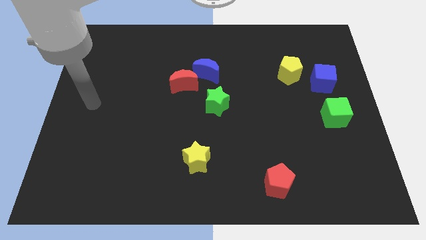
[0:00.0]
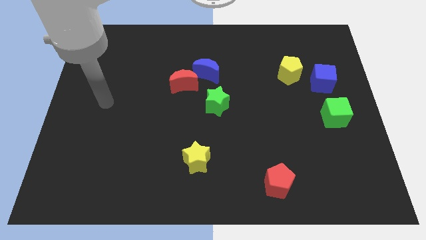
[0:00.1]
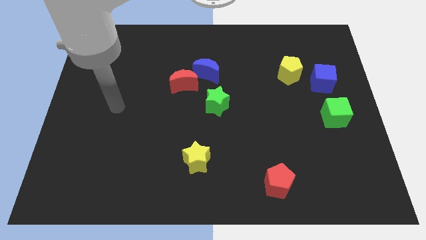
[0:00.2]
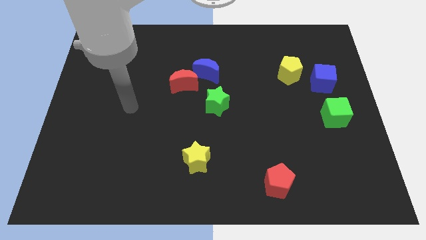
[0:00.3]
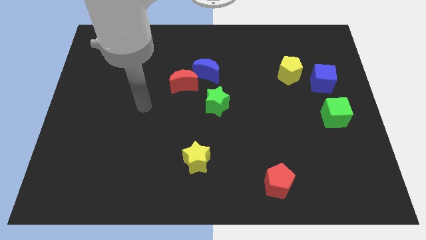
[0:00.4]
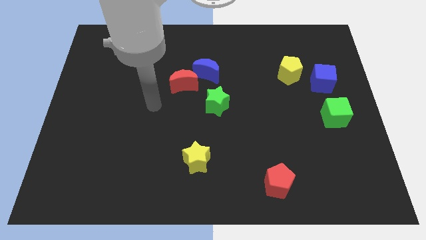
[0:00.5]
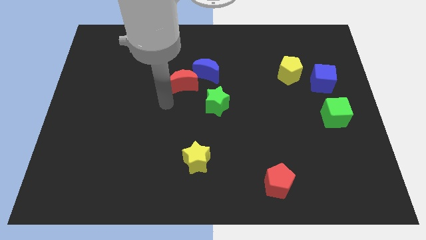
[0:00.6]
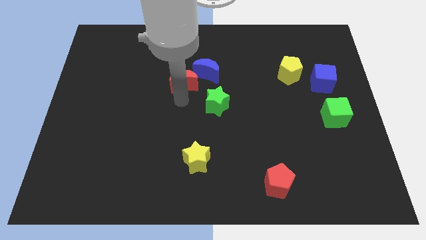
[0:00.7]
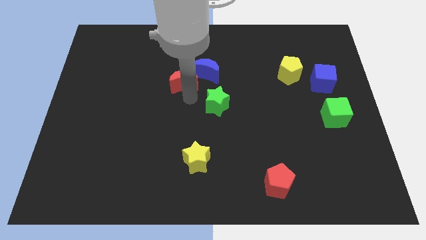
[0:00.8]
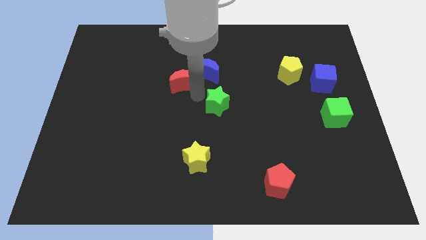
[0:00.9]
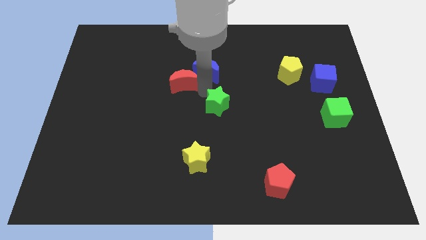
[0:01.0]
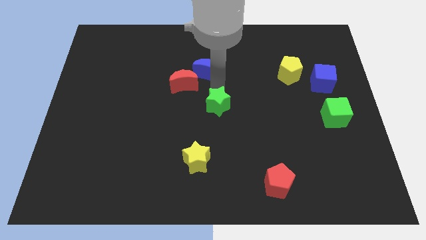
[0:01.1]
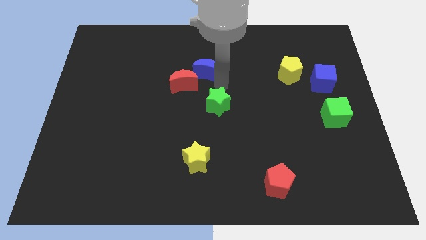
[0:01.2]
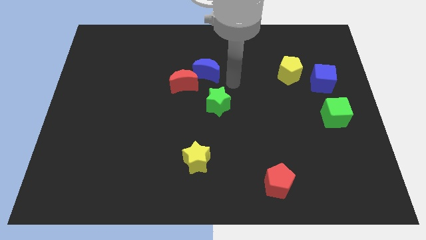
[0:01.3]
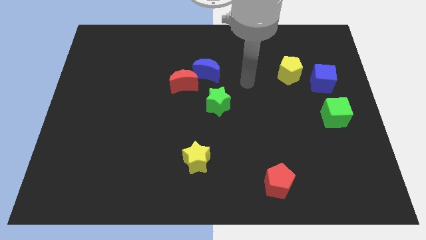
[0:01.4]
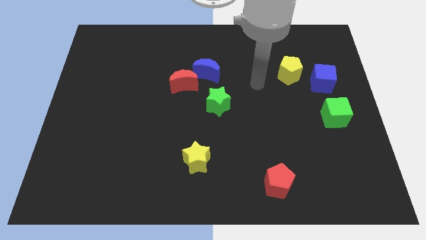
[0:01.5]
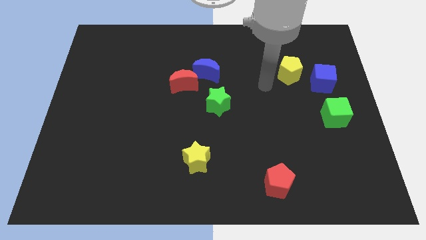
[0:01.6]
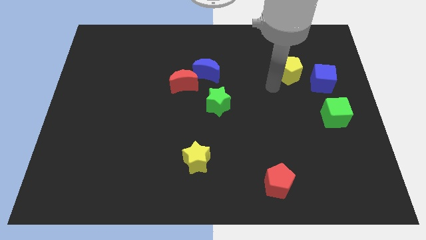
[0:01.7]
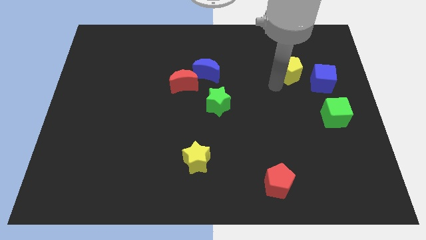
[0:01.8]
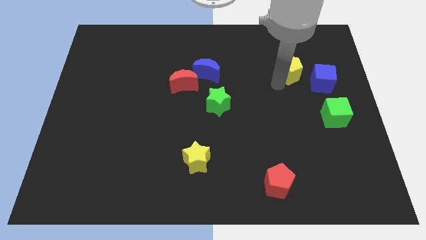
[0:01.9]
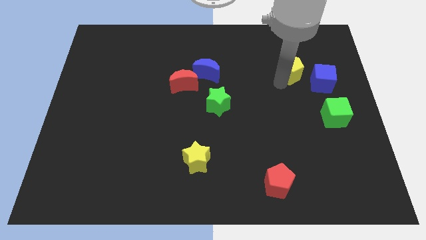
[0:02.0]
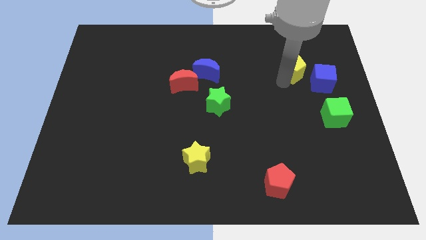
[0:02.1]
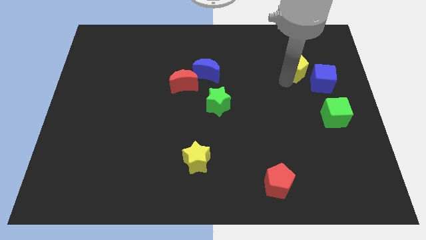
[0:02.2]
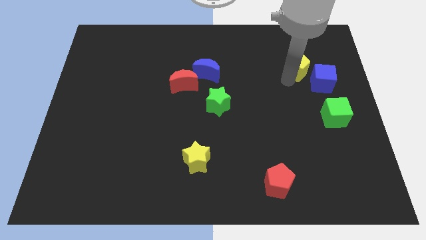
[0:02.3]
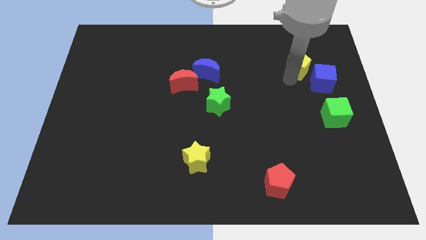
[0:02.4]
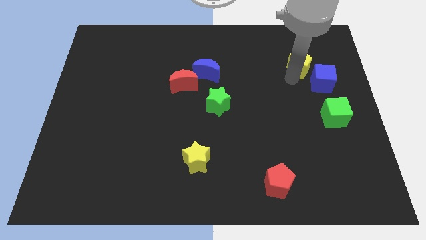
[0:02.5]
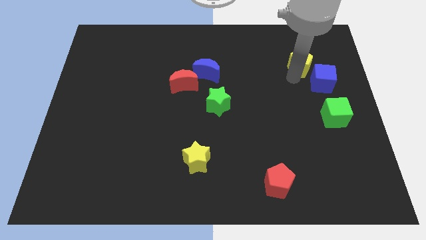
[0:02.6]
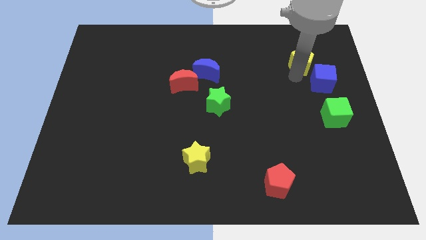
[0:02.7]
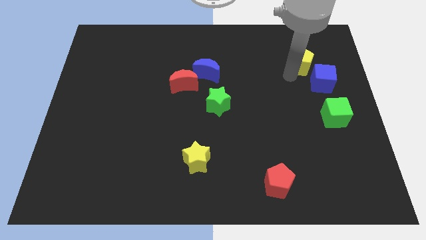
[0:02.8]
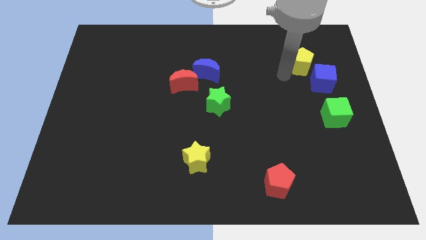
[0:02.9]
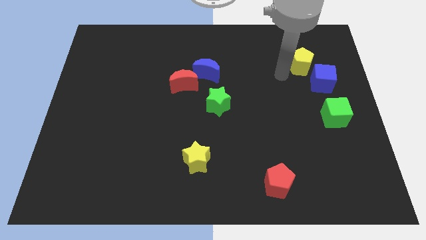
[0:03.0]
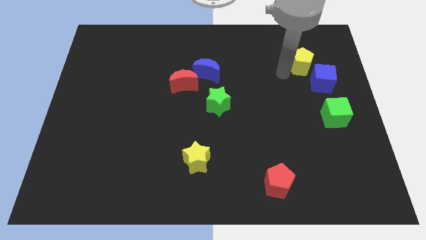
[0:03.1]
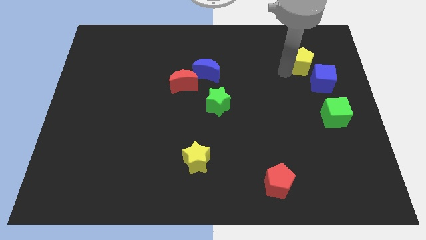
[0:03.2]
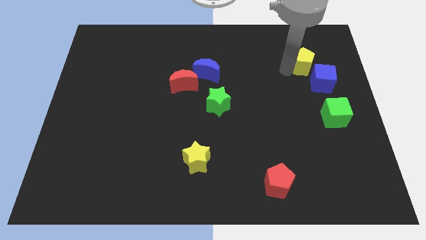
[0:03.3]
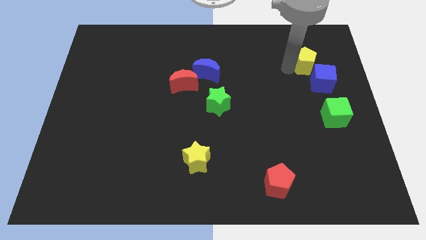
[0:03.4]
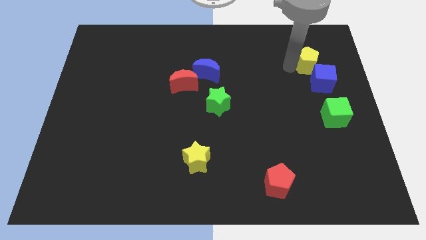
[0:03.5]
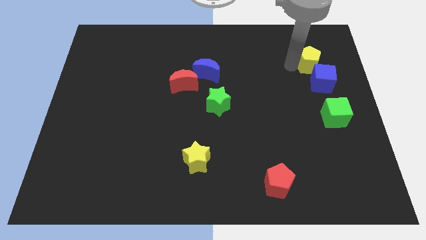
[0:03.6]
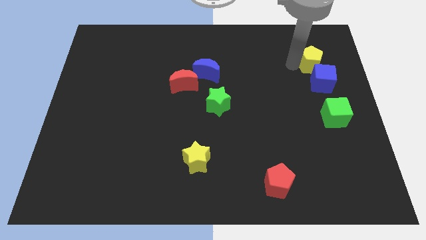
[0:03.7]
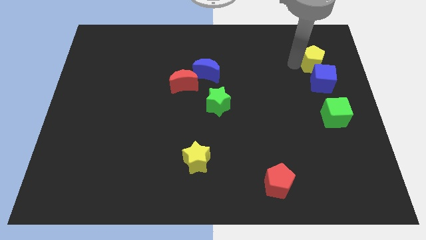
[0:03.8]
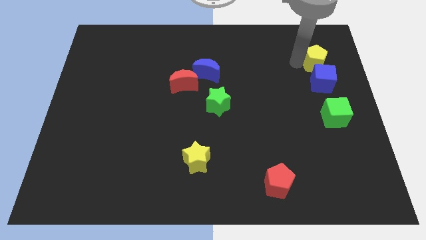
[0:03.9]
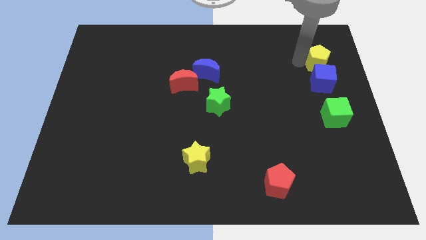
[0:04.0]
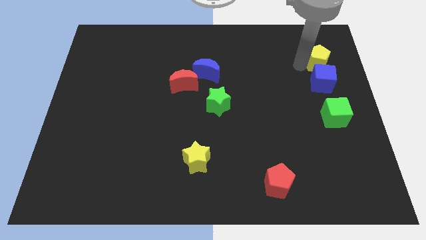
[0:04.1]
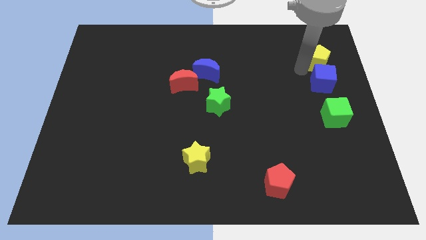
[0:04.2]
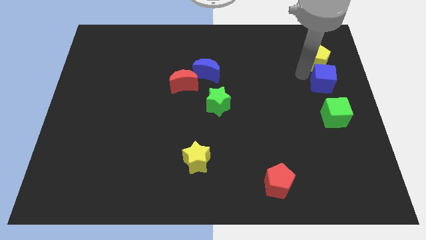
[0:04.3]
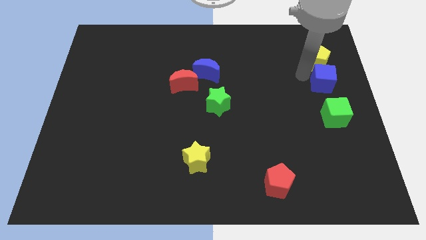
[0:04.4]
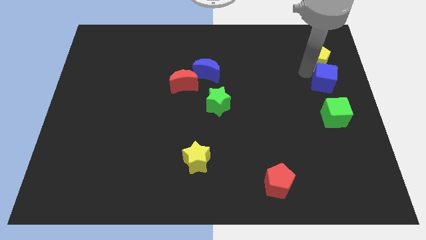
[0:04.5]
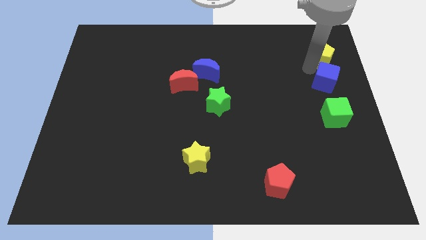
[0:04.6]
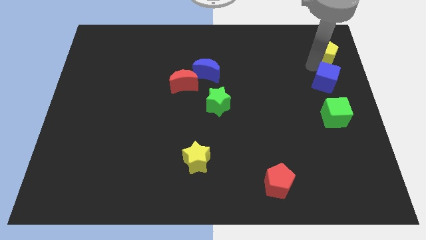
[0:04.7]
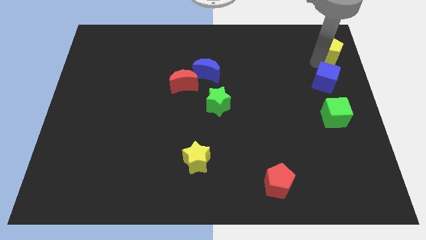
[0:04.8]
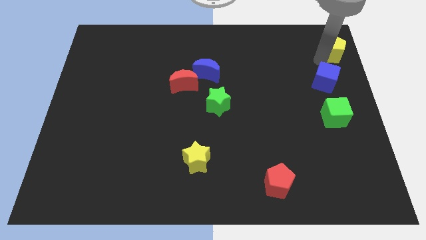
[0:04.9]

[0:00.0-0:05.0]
slide the yellow pentagon to the top right corner

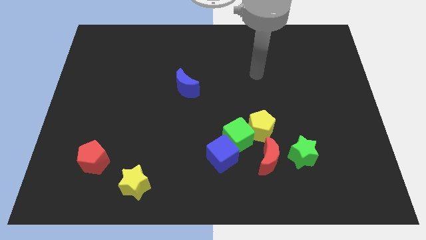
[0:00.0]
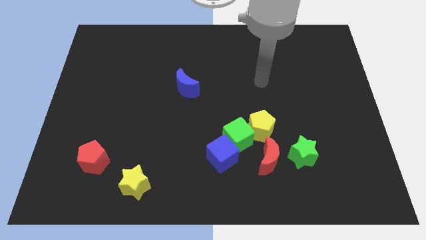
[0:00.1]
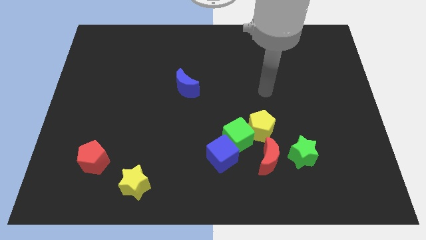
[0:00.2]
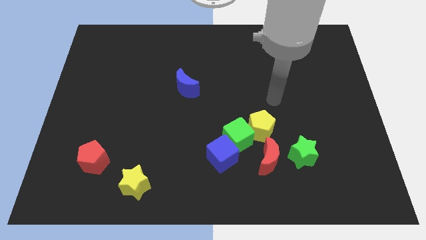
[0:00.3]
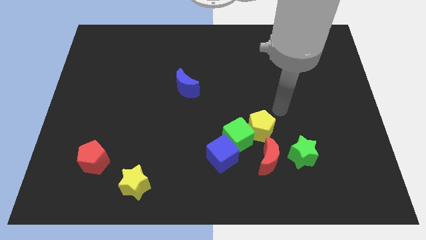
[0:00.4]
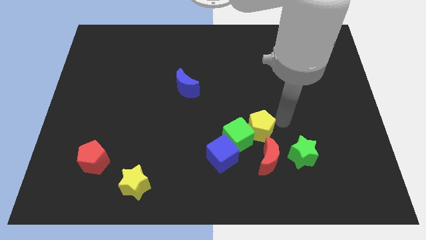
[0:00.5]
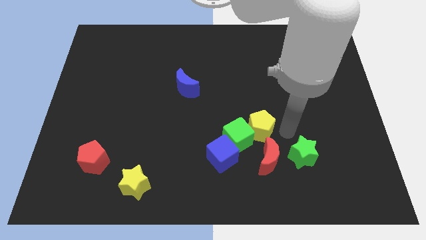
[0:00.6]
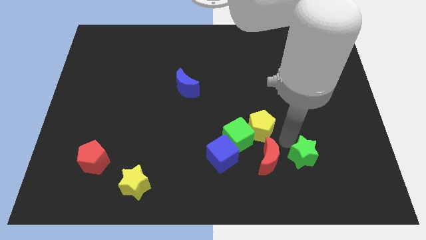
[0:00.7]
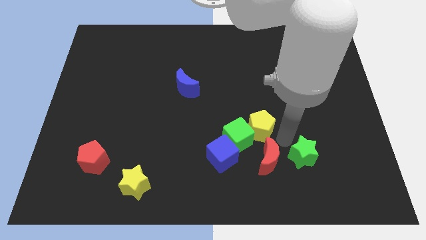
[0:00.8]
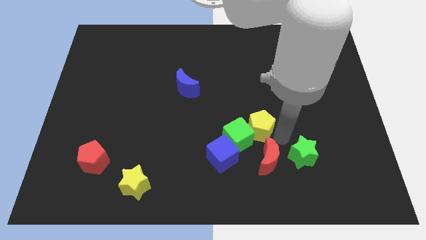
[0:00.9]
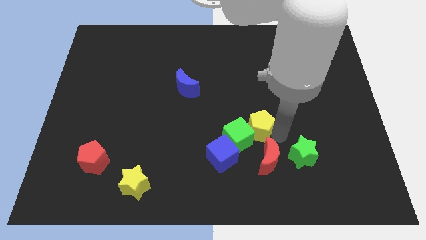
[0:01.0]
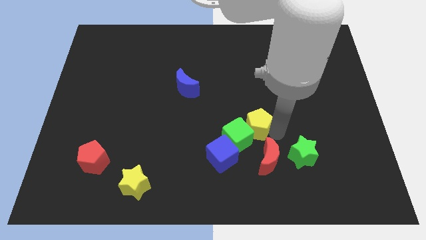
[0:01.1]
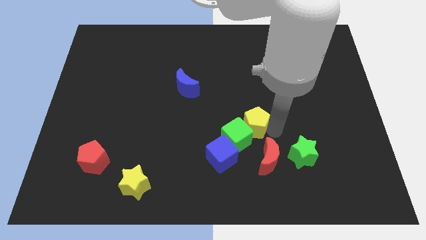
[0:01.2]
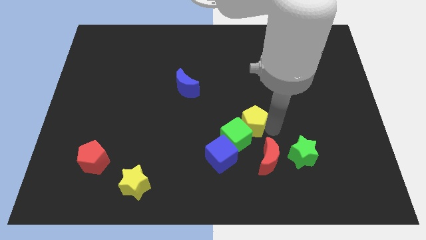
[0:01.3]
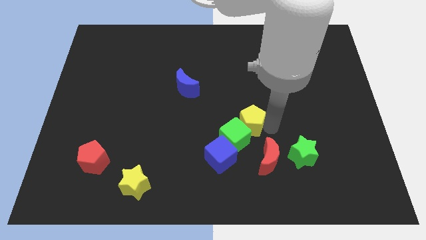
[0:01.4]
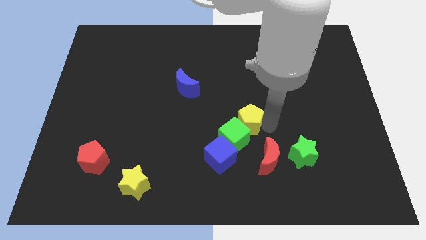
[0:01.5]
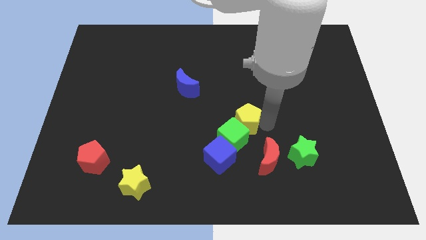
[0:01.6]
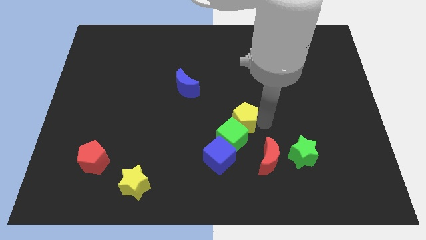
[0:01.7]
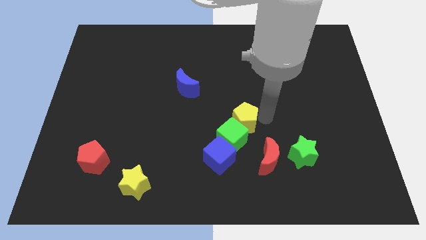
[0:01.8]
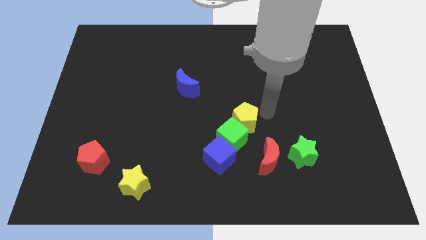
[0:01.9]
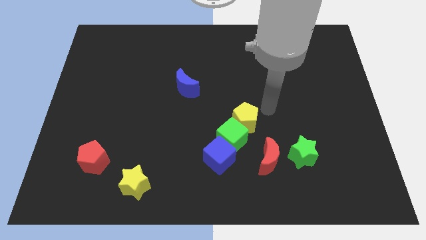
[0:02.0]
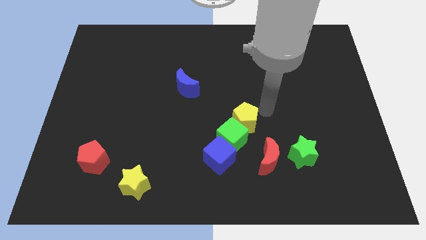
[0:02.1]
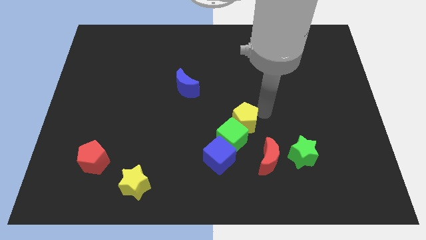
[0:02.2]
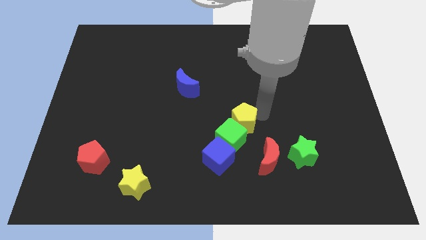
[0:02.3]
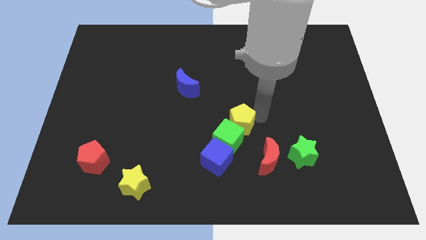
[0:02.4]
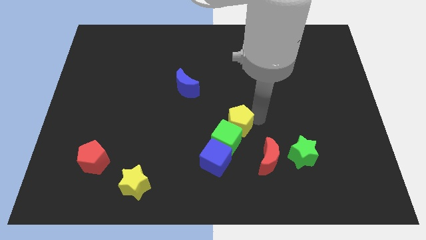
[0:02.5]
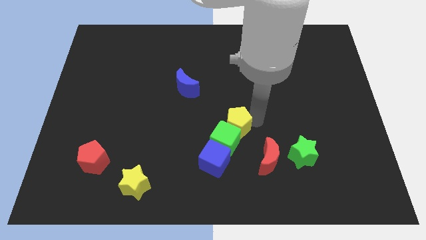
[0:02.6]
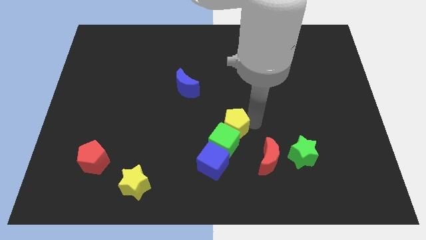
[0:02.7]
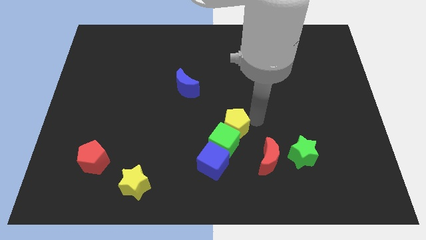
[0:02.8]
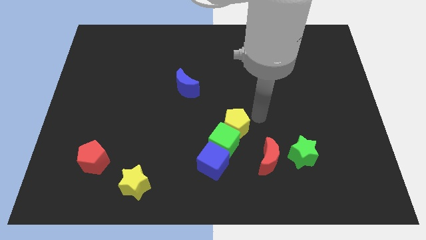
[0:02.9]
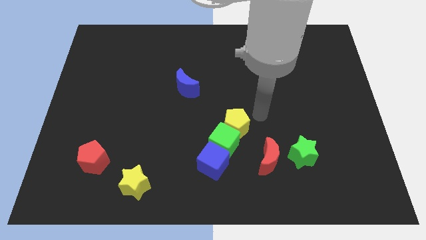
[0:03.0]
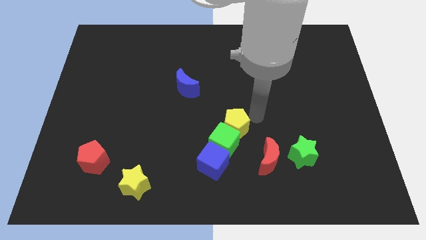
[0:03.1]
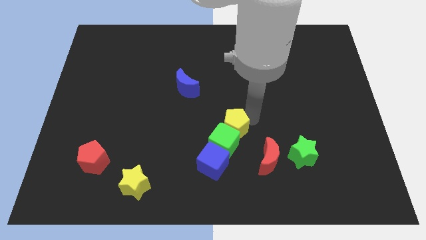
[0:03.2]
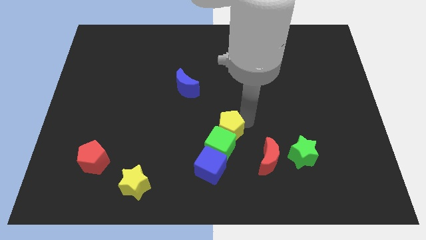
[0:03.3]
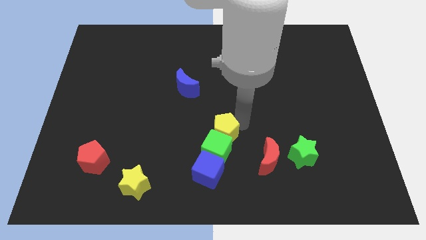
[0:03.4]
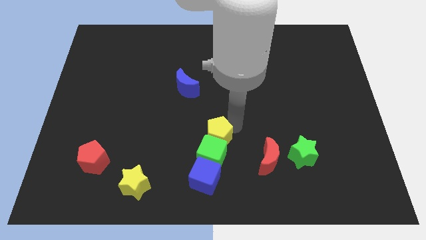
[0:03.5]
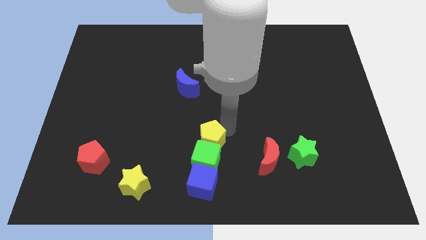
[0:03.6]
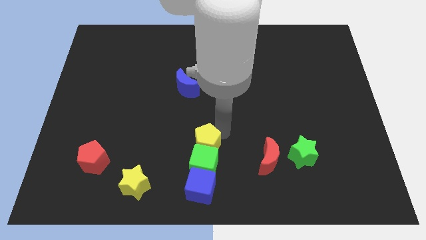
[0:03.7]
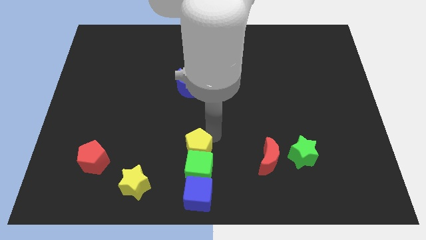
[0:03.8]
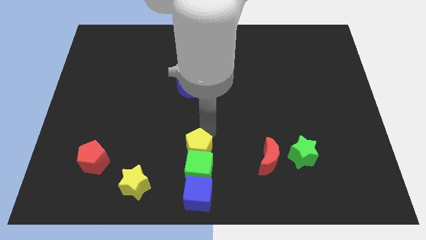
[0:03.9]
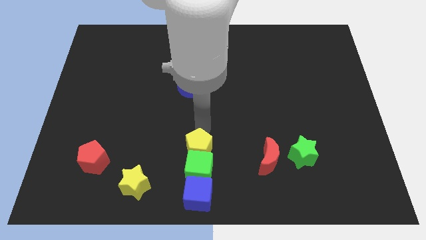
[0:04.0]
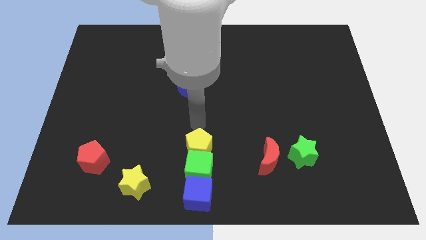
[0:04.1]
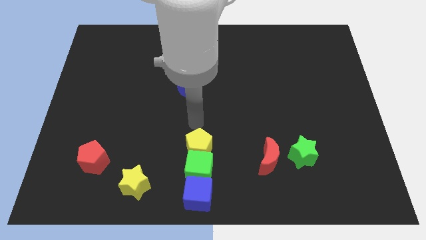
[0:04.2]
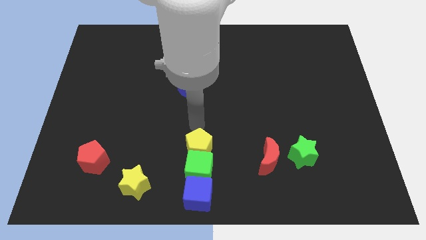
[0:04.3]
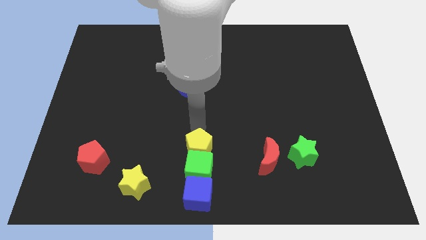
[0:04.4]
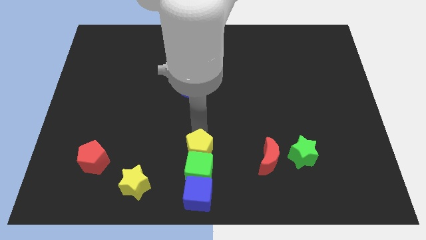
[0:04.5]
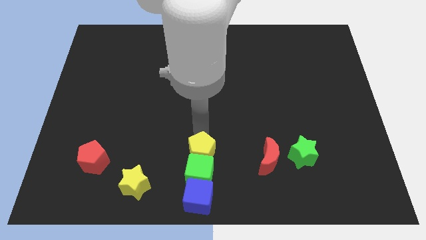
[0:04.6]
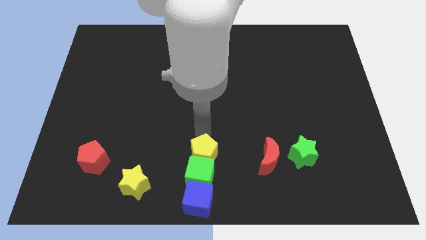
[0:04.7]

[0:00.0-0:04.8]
slide the yellow pentagon to the bottom side
